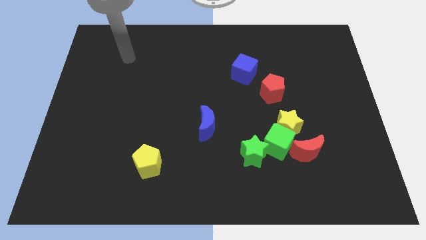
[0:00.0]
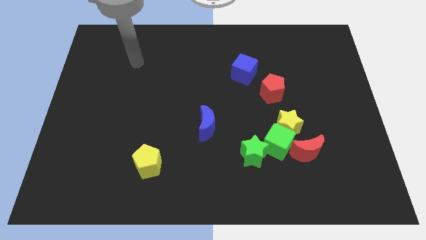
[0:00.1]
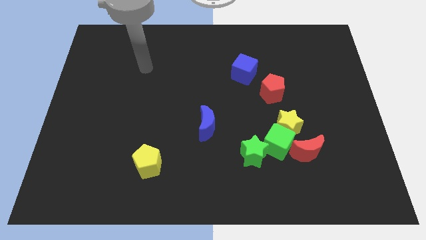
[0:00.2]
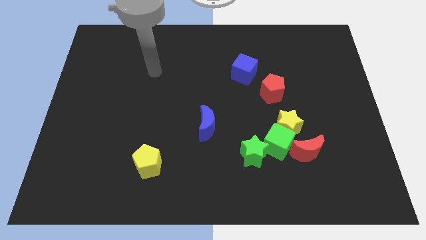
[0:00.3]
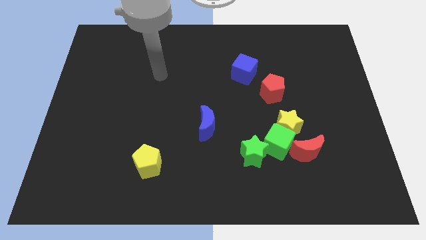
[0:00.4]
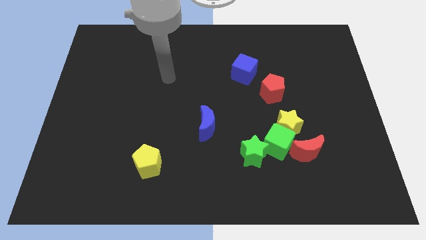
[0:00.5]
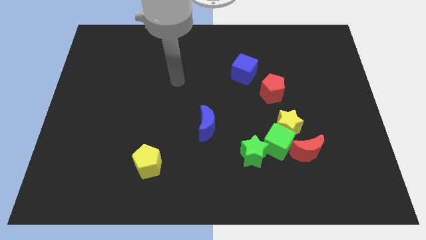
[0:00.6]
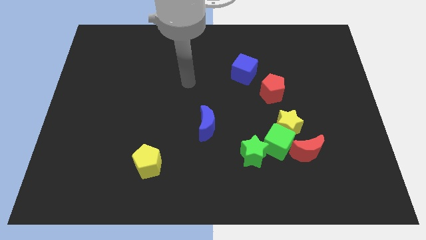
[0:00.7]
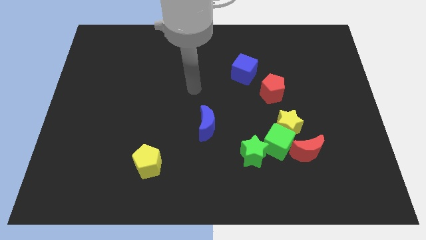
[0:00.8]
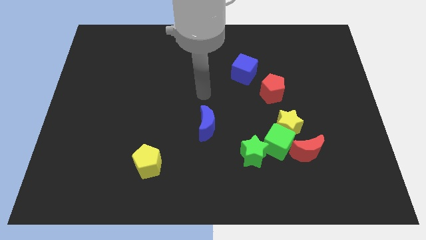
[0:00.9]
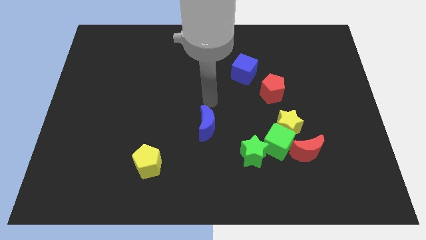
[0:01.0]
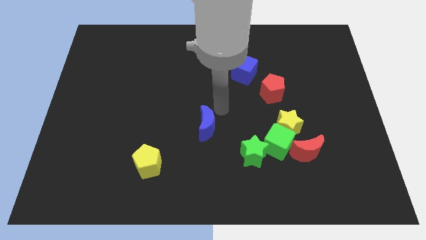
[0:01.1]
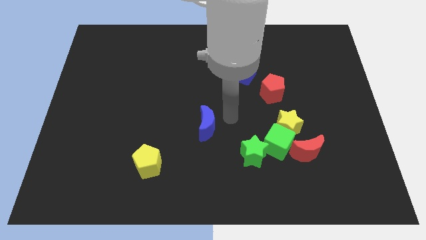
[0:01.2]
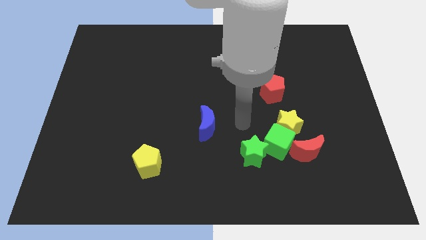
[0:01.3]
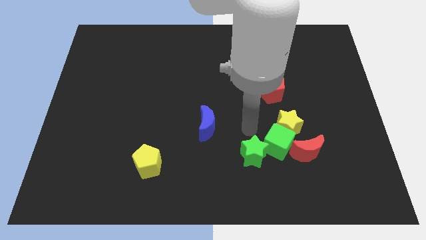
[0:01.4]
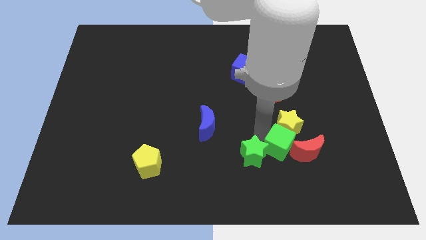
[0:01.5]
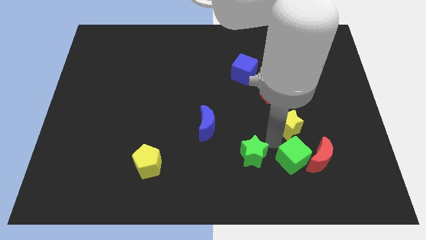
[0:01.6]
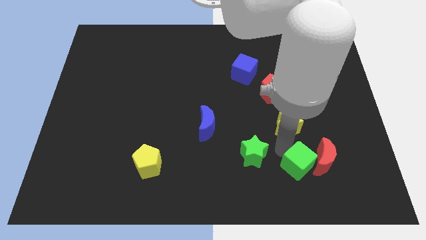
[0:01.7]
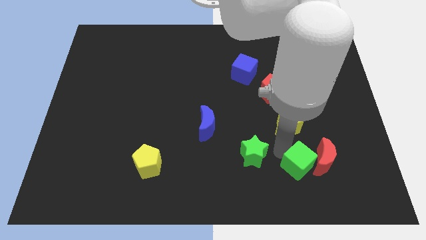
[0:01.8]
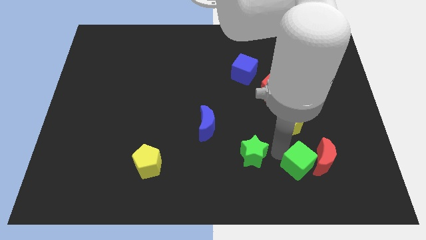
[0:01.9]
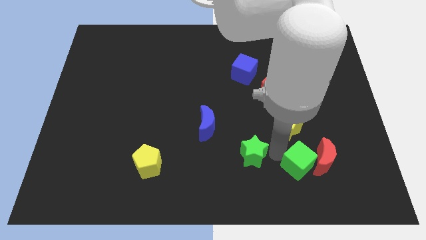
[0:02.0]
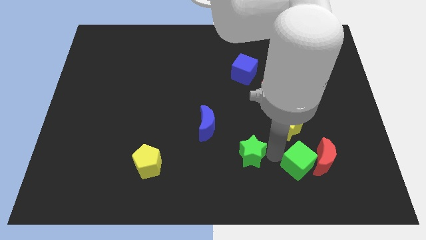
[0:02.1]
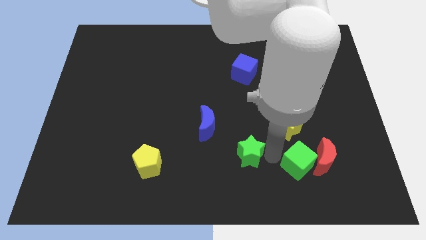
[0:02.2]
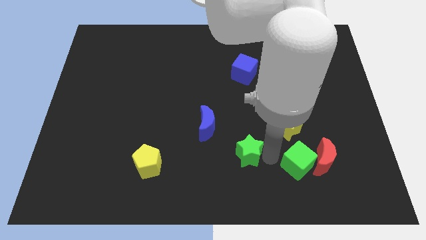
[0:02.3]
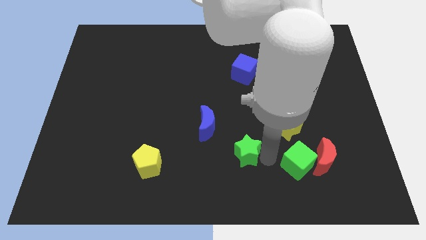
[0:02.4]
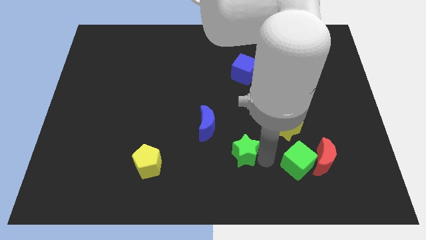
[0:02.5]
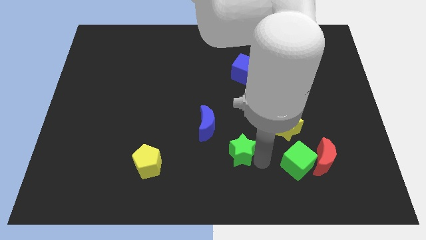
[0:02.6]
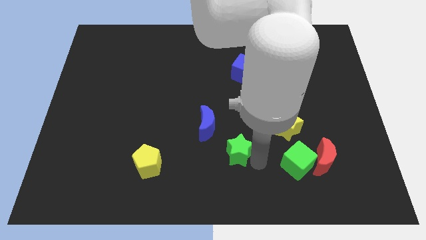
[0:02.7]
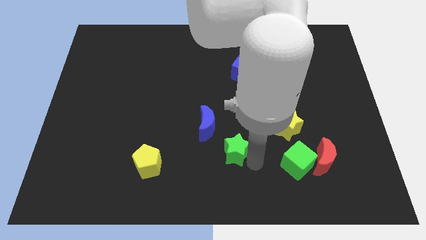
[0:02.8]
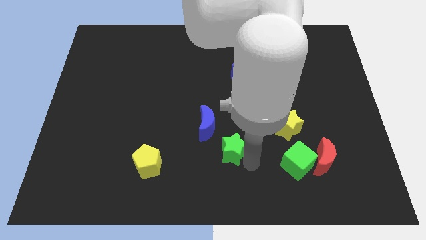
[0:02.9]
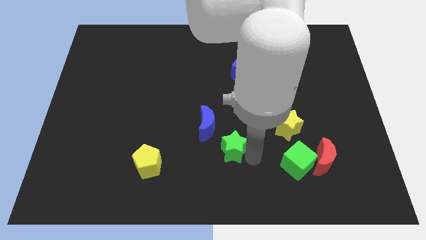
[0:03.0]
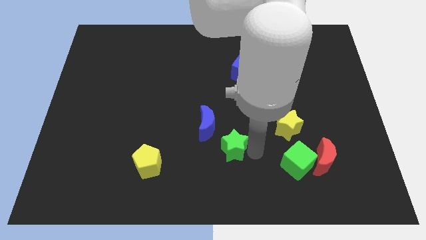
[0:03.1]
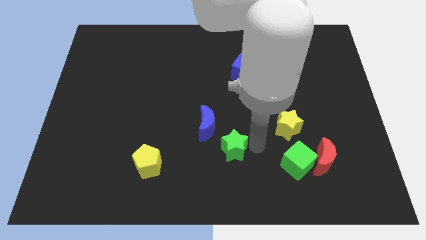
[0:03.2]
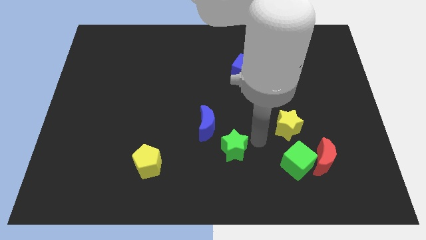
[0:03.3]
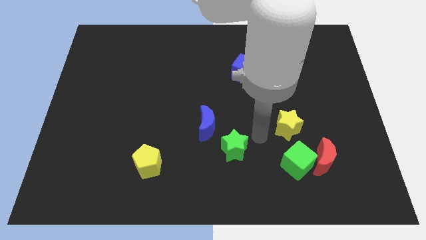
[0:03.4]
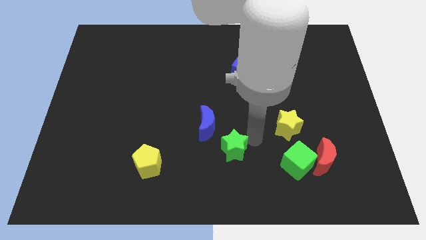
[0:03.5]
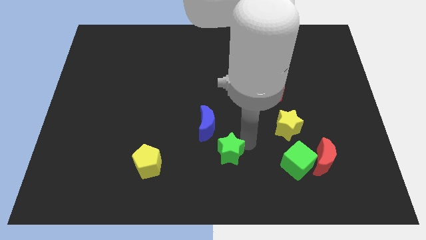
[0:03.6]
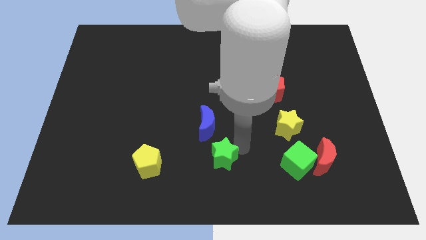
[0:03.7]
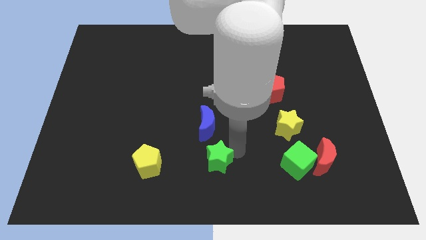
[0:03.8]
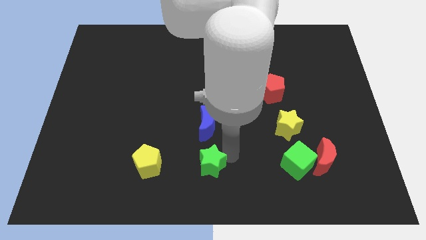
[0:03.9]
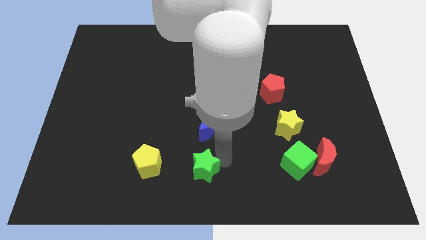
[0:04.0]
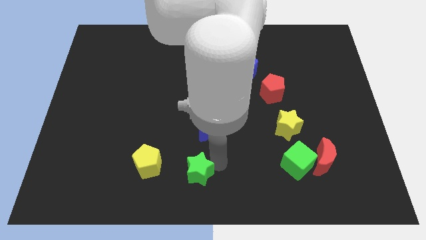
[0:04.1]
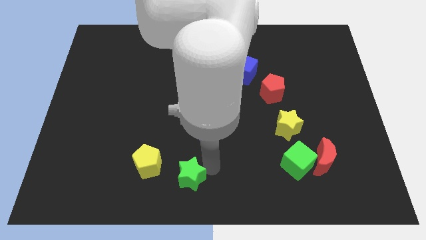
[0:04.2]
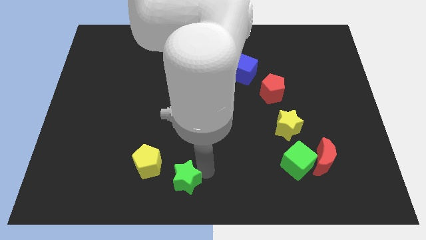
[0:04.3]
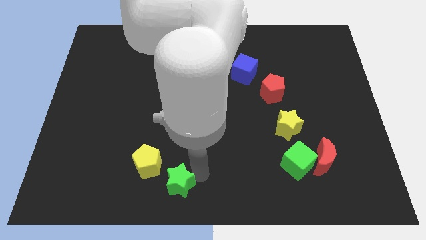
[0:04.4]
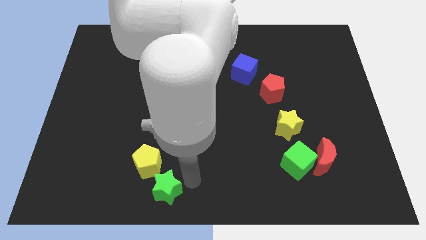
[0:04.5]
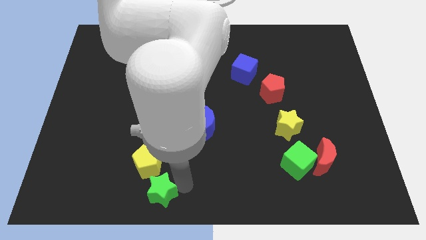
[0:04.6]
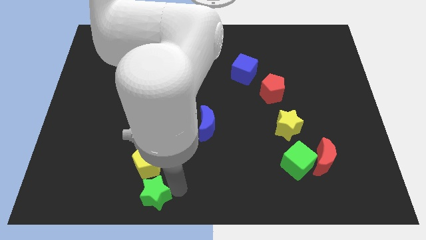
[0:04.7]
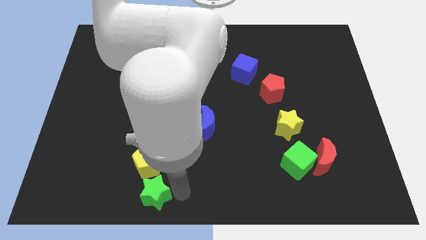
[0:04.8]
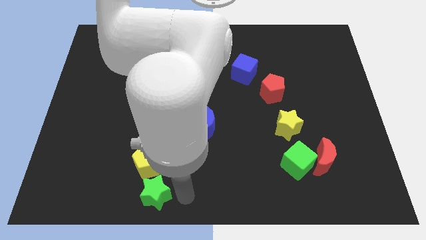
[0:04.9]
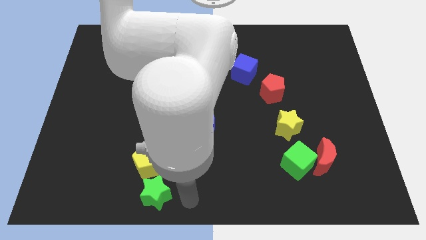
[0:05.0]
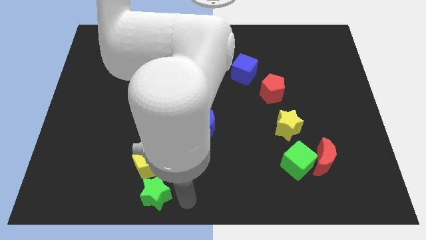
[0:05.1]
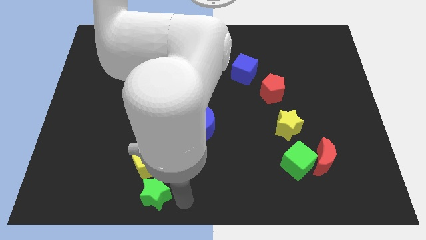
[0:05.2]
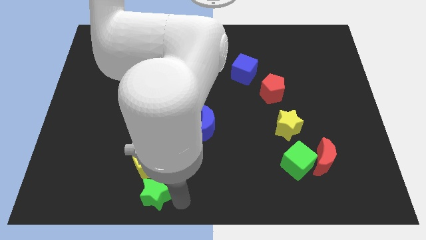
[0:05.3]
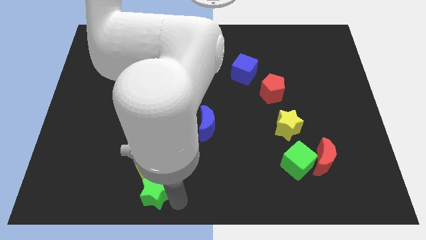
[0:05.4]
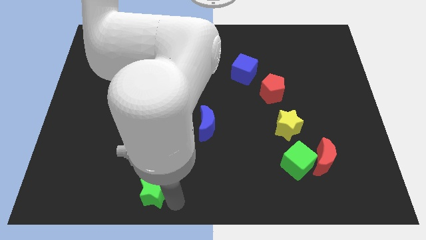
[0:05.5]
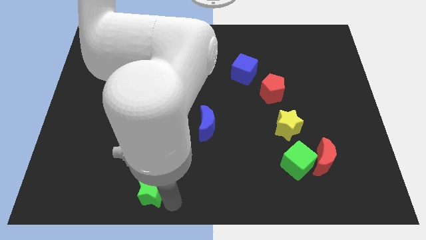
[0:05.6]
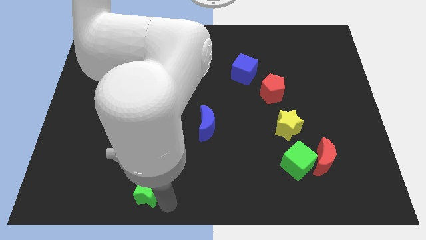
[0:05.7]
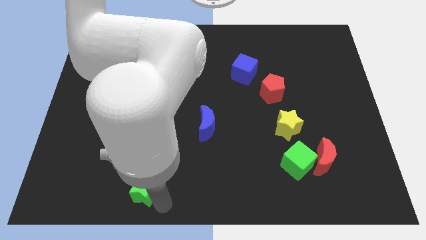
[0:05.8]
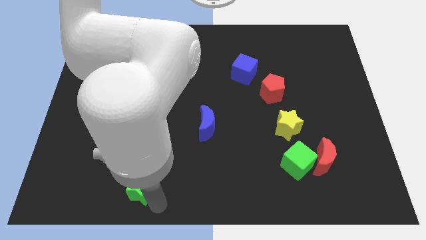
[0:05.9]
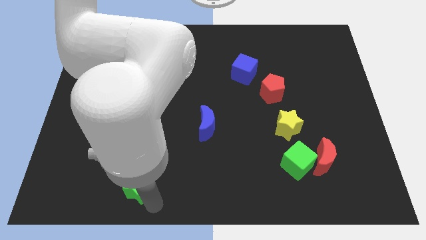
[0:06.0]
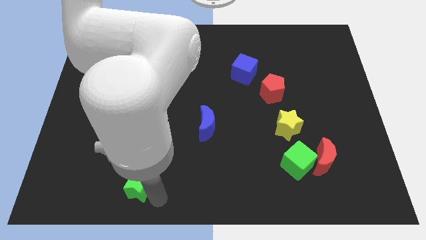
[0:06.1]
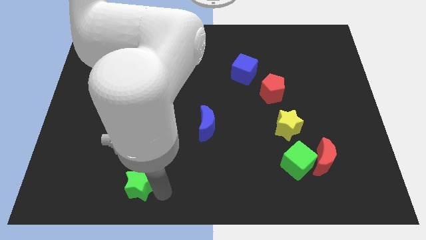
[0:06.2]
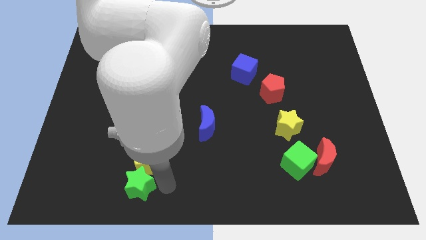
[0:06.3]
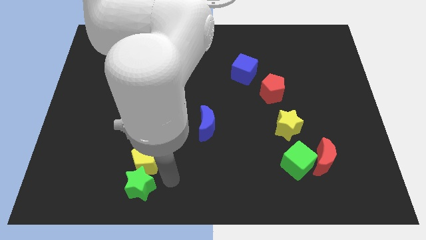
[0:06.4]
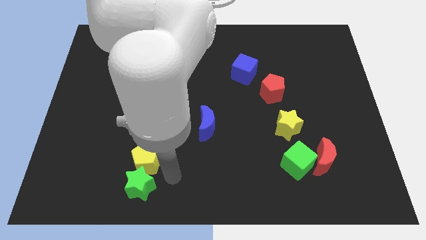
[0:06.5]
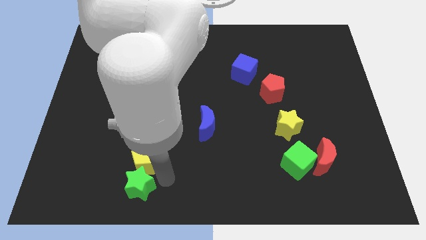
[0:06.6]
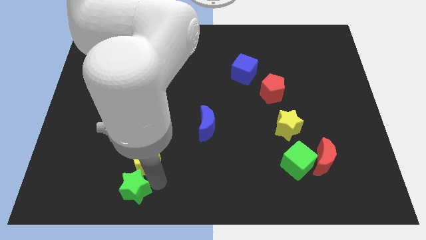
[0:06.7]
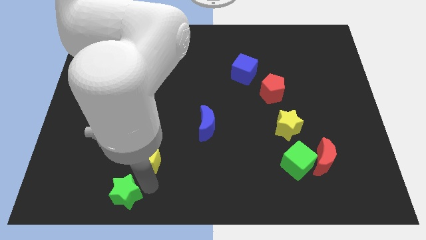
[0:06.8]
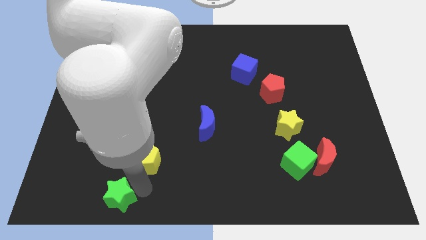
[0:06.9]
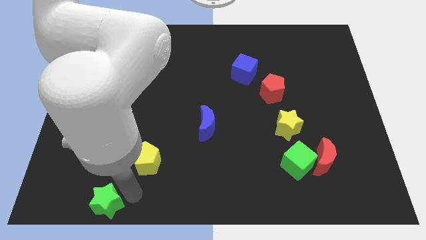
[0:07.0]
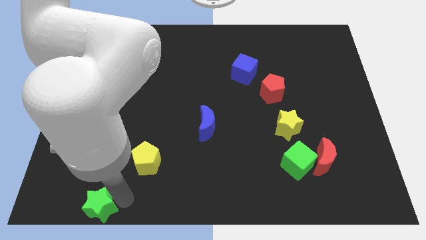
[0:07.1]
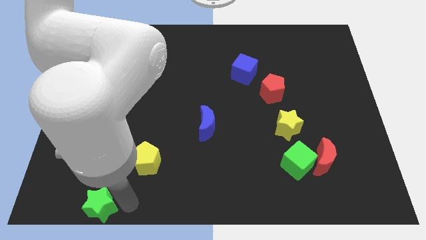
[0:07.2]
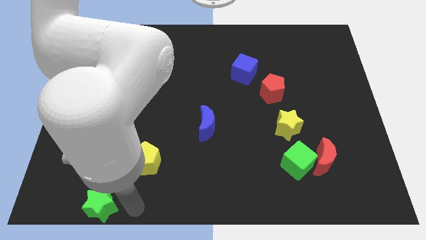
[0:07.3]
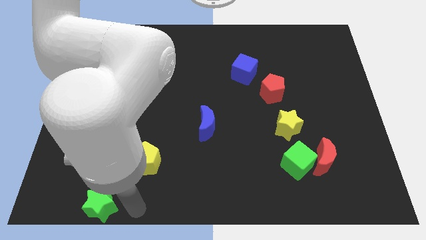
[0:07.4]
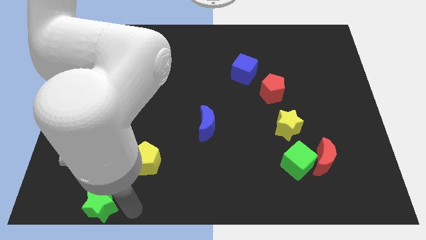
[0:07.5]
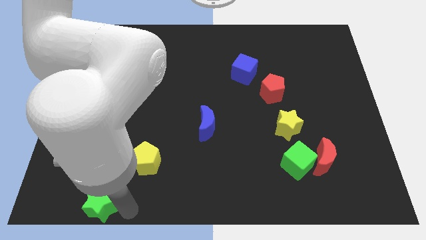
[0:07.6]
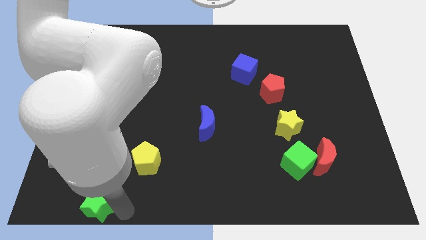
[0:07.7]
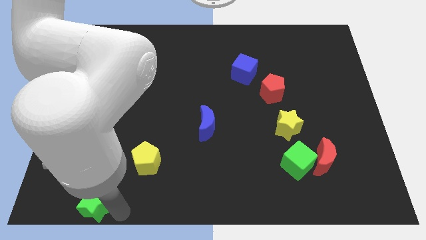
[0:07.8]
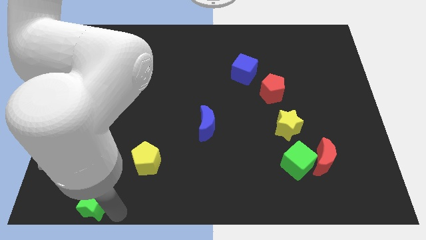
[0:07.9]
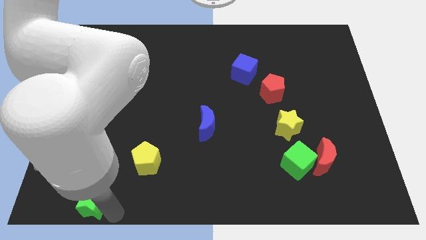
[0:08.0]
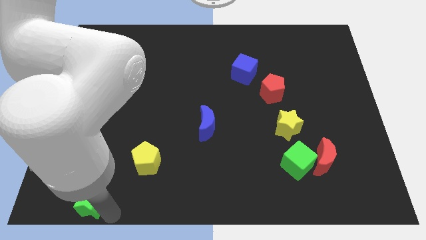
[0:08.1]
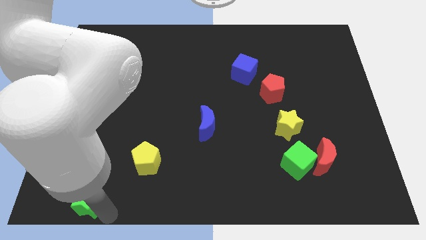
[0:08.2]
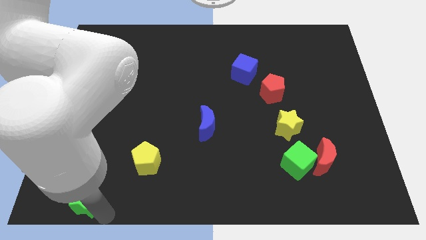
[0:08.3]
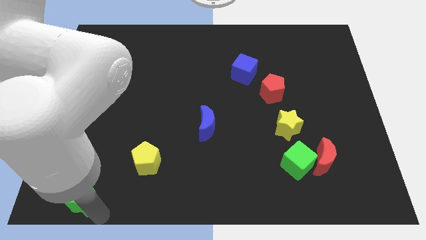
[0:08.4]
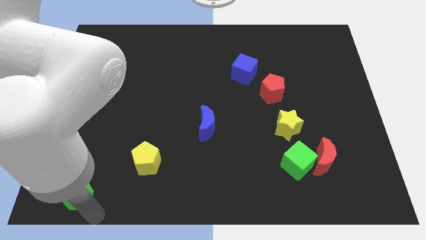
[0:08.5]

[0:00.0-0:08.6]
move the green star to the bottom left
